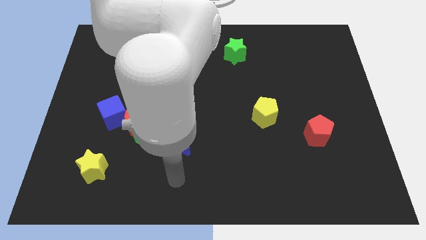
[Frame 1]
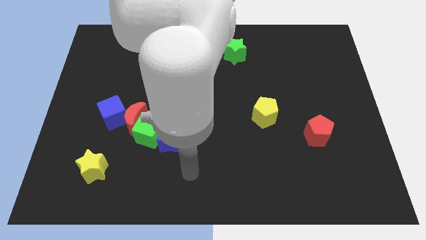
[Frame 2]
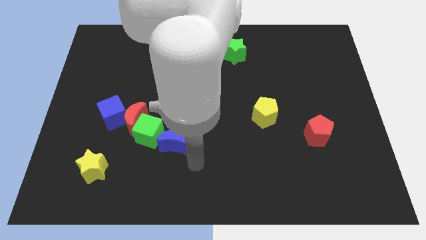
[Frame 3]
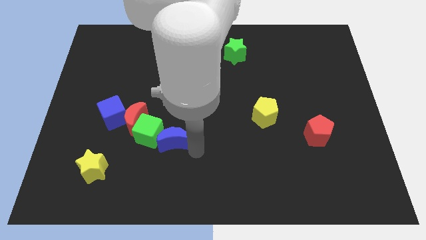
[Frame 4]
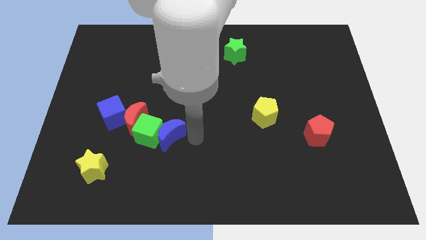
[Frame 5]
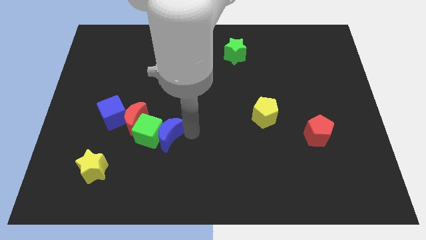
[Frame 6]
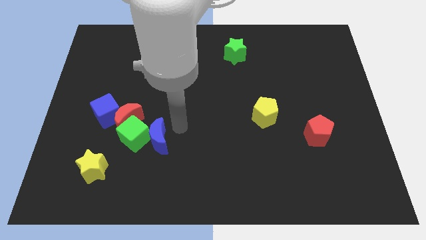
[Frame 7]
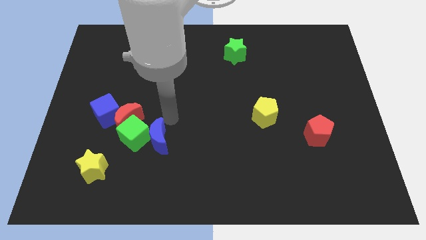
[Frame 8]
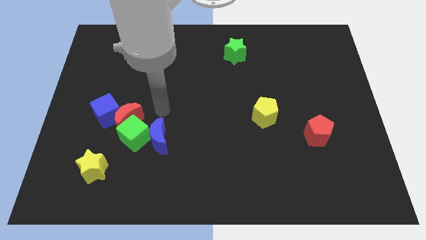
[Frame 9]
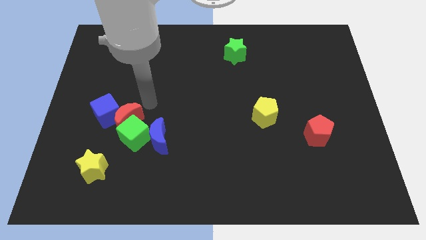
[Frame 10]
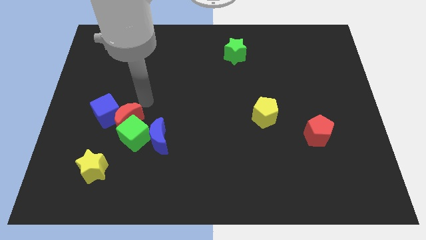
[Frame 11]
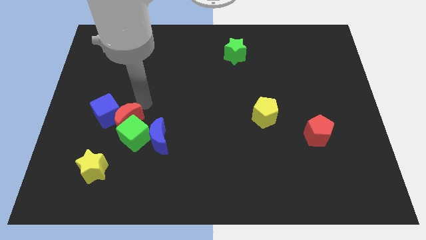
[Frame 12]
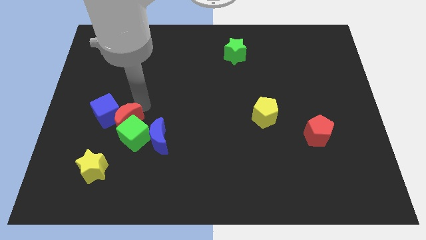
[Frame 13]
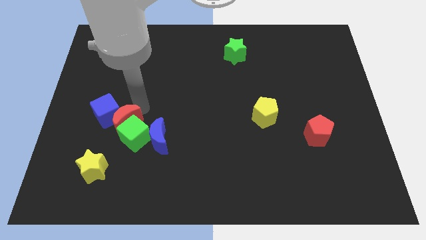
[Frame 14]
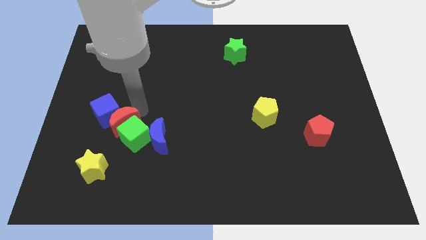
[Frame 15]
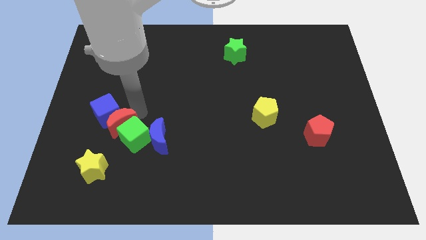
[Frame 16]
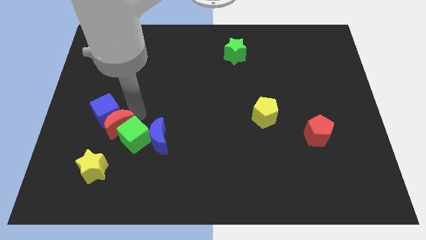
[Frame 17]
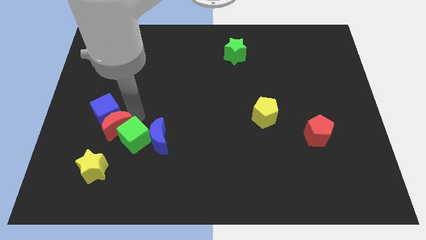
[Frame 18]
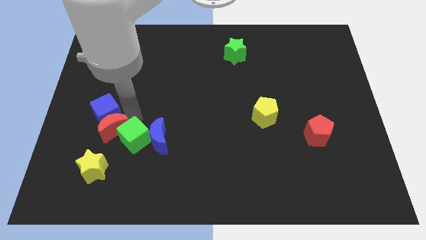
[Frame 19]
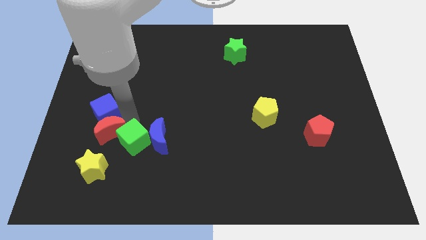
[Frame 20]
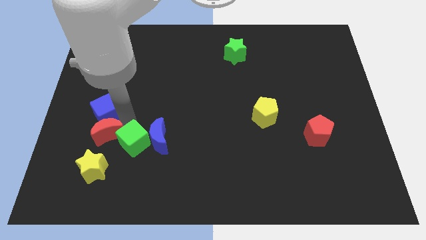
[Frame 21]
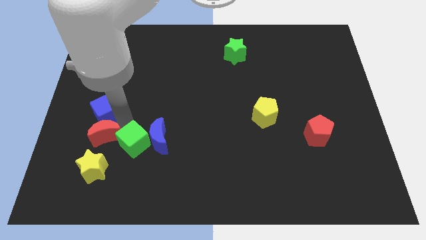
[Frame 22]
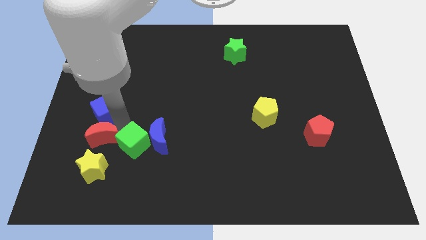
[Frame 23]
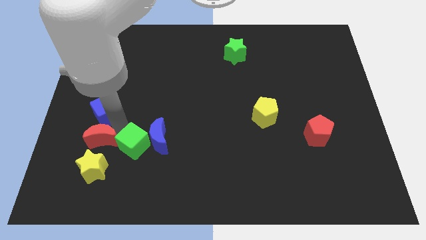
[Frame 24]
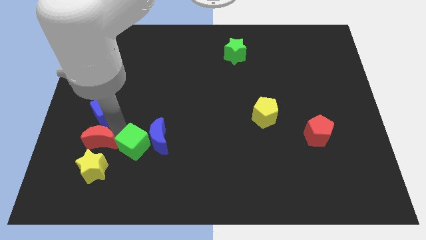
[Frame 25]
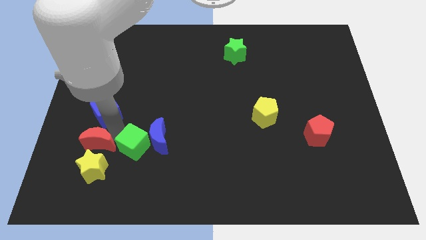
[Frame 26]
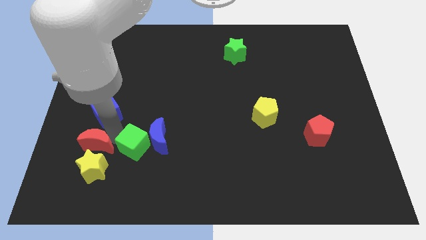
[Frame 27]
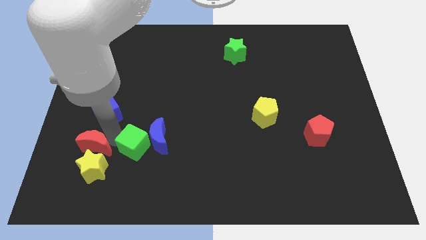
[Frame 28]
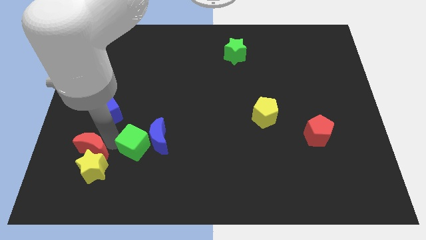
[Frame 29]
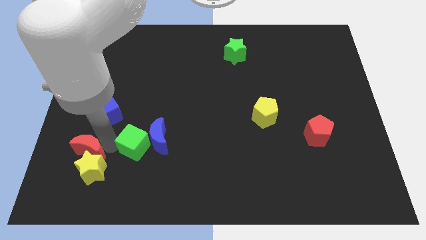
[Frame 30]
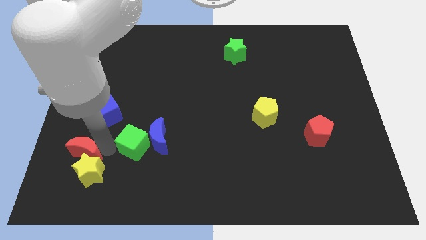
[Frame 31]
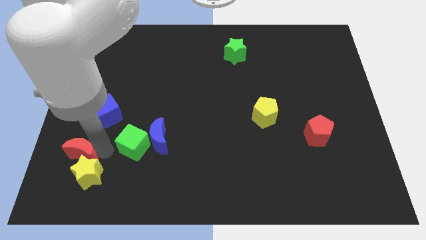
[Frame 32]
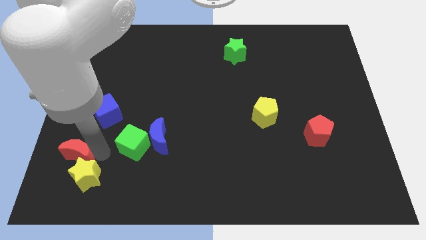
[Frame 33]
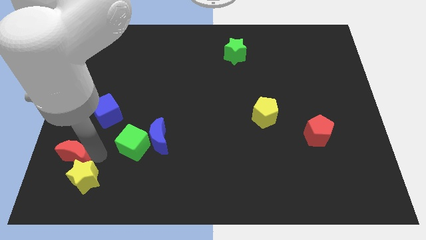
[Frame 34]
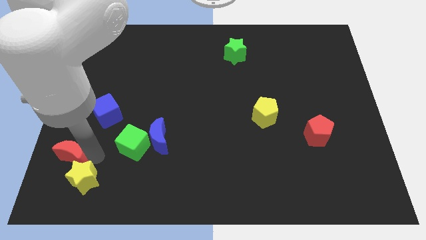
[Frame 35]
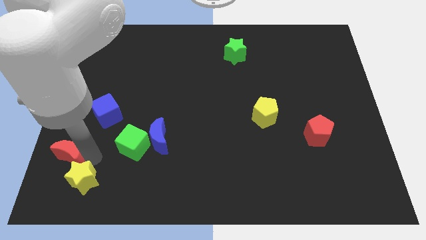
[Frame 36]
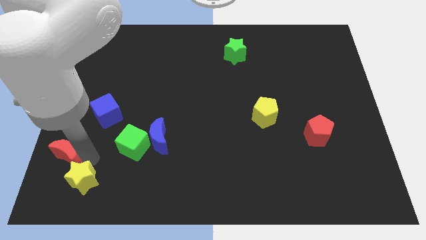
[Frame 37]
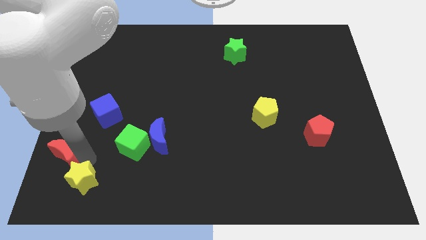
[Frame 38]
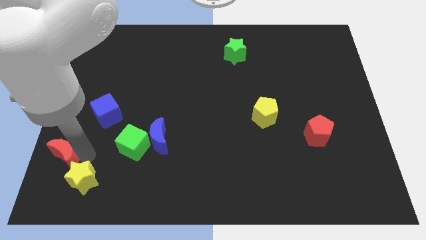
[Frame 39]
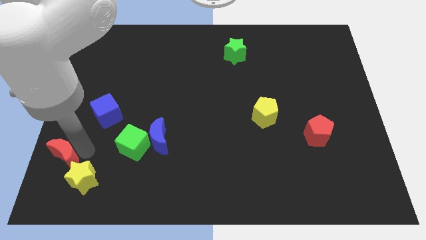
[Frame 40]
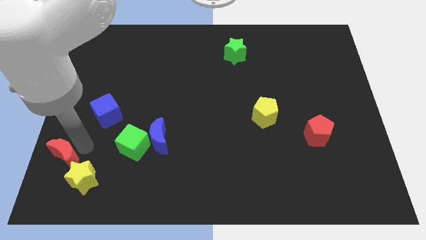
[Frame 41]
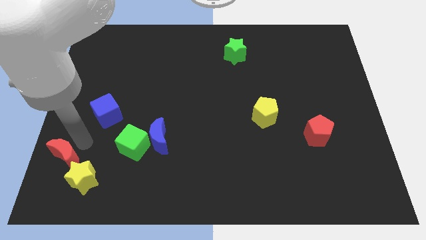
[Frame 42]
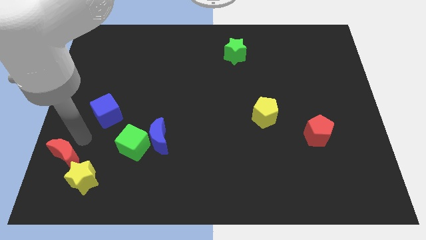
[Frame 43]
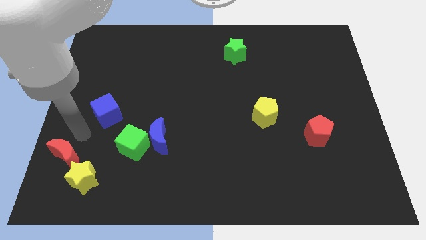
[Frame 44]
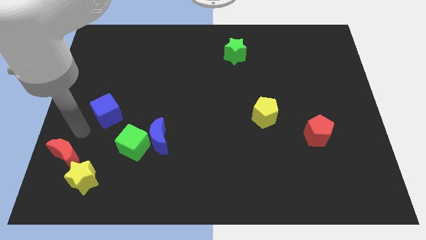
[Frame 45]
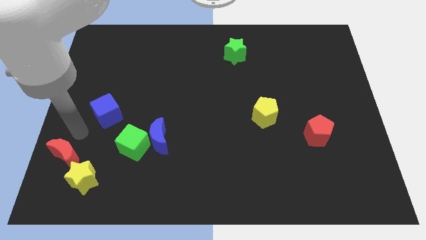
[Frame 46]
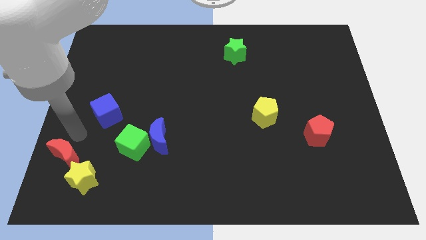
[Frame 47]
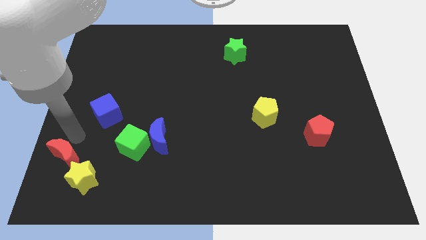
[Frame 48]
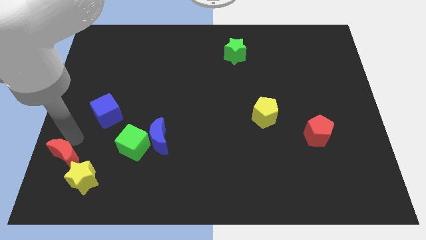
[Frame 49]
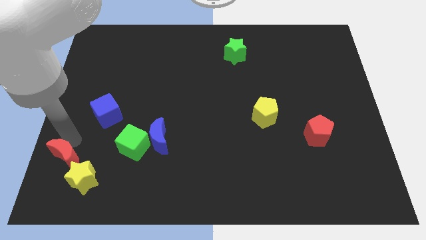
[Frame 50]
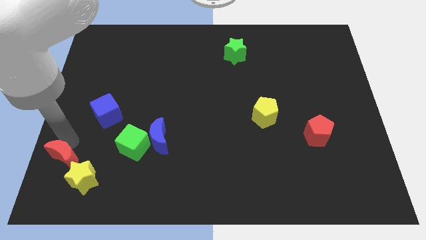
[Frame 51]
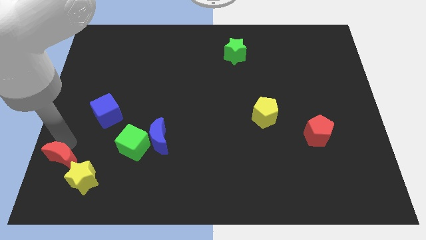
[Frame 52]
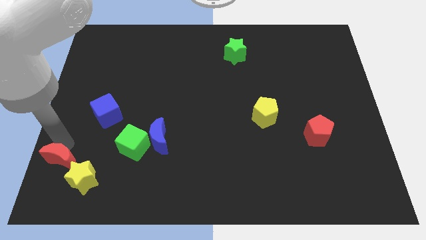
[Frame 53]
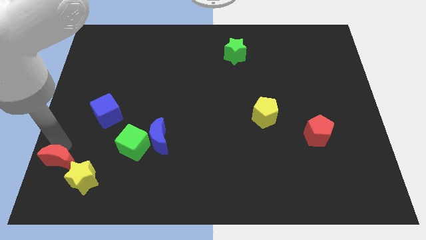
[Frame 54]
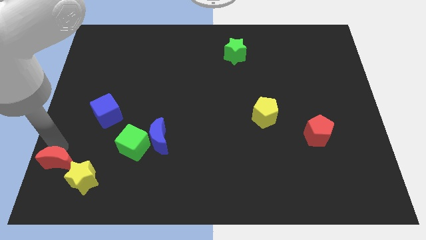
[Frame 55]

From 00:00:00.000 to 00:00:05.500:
slide the red moon to the lower left corner
